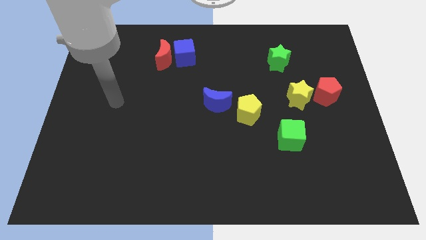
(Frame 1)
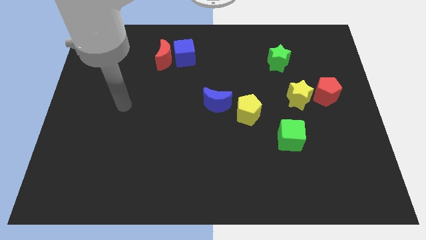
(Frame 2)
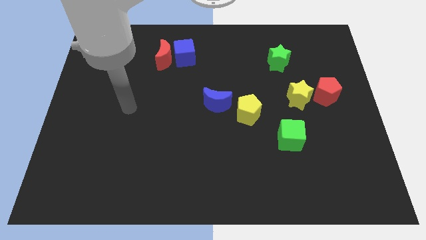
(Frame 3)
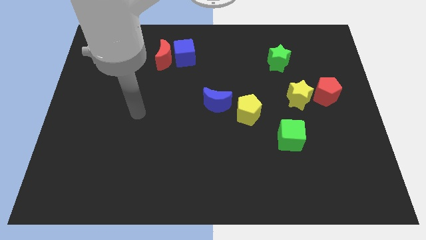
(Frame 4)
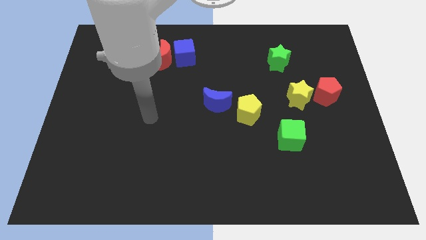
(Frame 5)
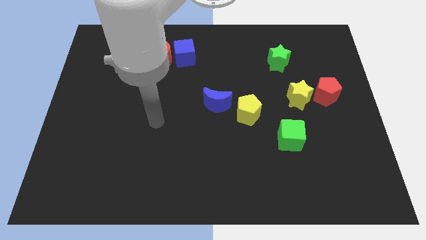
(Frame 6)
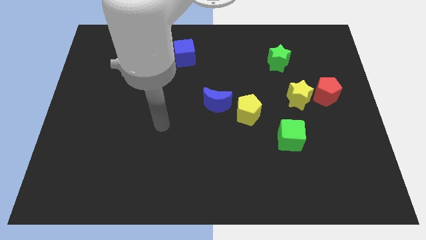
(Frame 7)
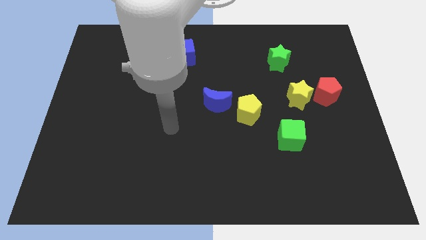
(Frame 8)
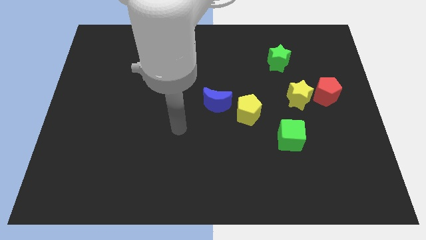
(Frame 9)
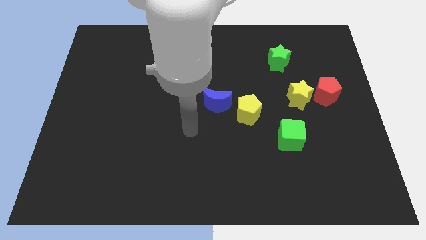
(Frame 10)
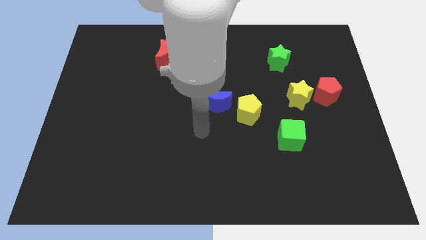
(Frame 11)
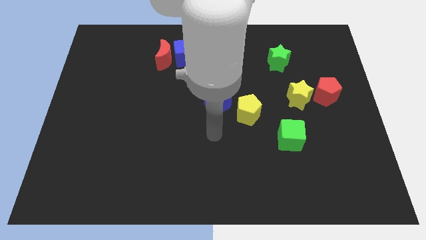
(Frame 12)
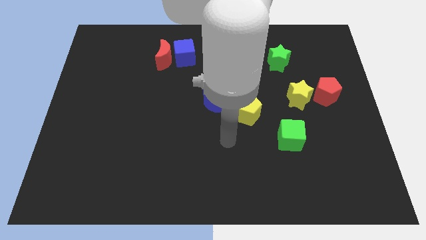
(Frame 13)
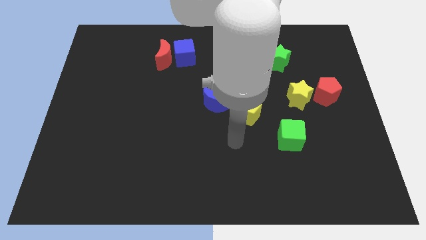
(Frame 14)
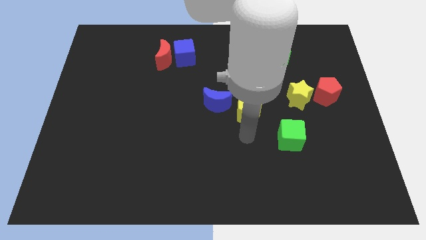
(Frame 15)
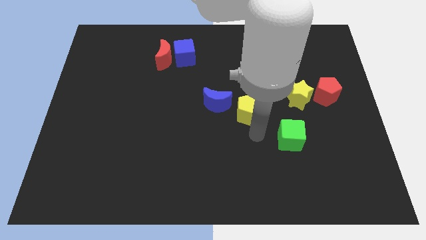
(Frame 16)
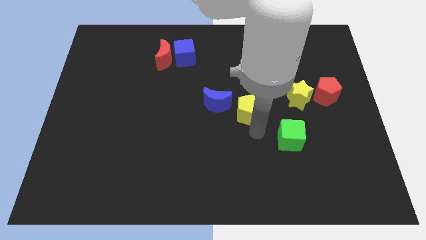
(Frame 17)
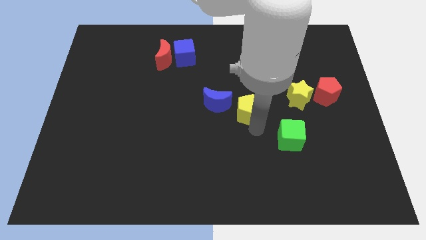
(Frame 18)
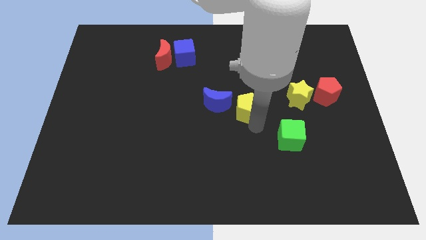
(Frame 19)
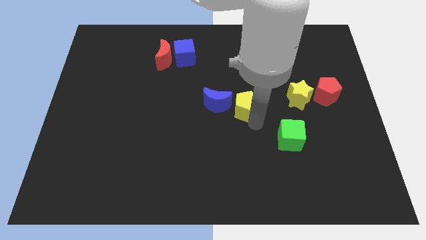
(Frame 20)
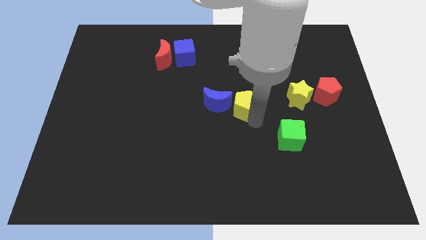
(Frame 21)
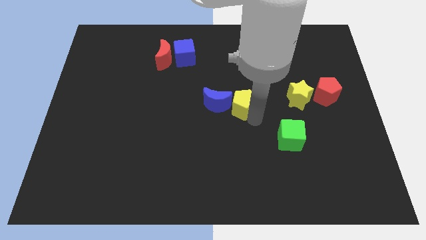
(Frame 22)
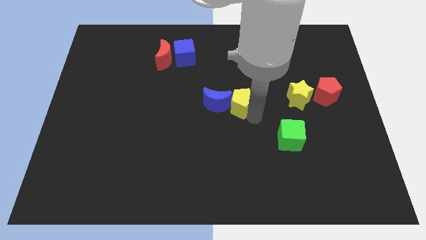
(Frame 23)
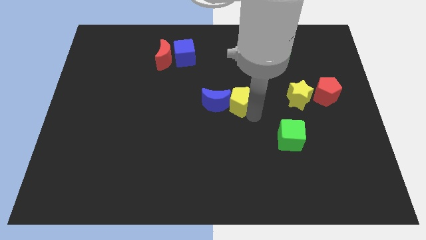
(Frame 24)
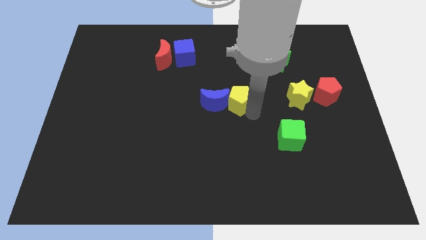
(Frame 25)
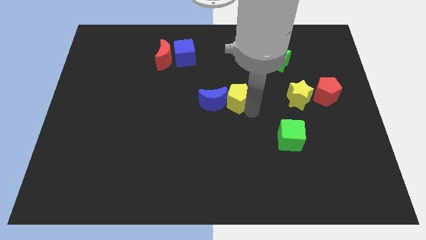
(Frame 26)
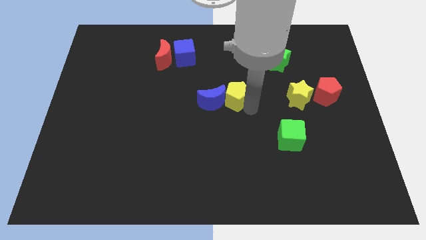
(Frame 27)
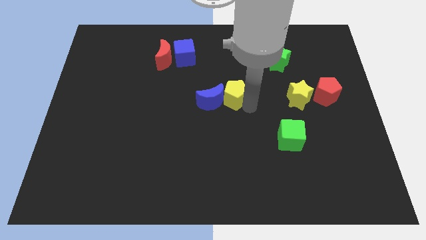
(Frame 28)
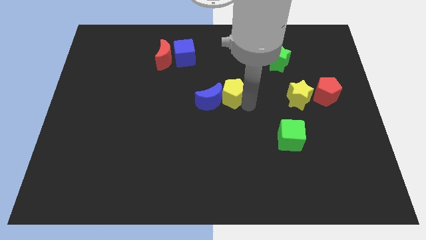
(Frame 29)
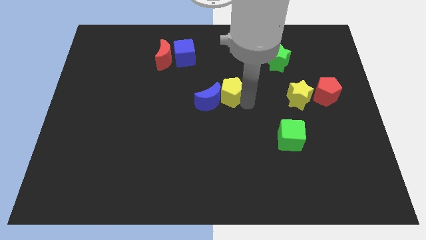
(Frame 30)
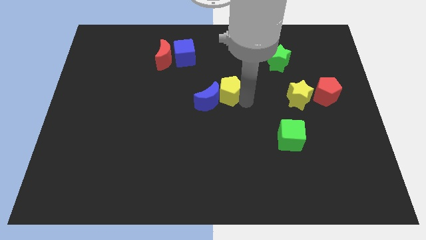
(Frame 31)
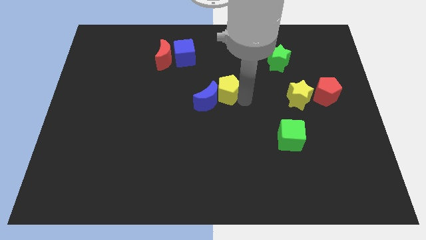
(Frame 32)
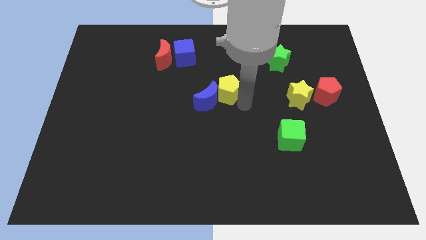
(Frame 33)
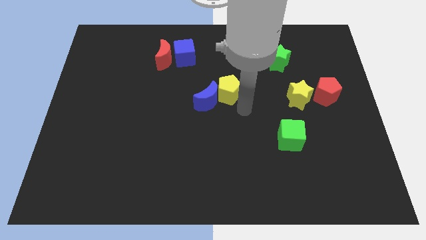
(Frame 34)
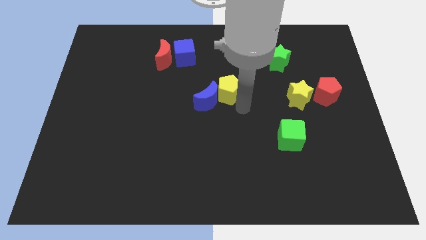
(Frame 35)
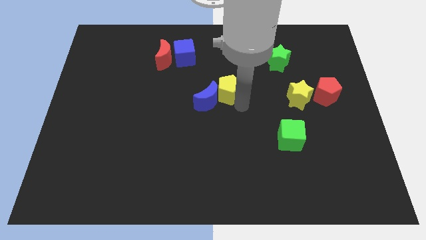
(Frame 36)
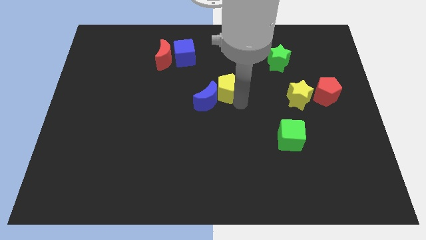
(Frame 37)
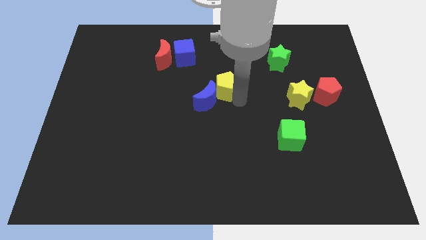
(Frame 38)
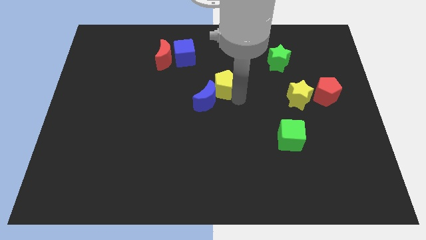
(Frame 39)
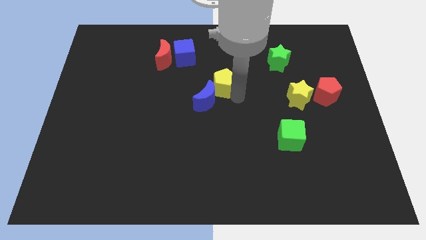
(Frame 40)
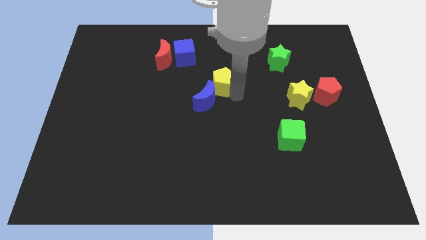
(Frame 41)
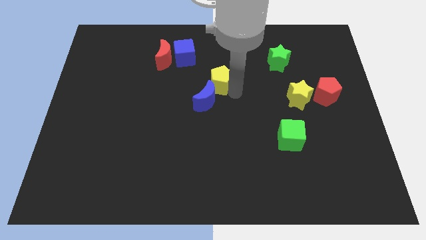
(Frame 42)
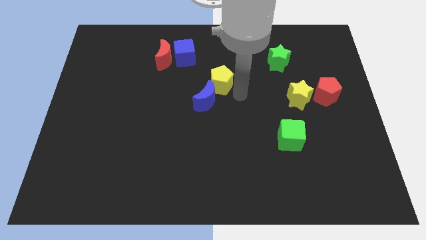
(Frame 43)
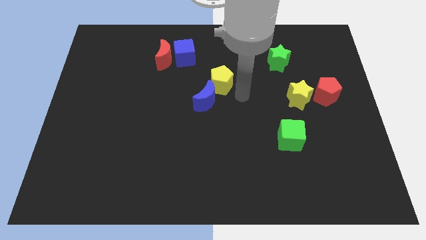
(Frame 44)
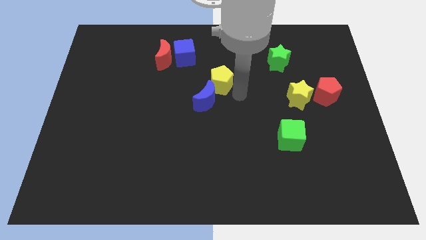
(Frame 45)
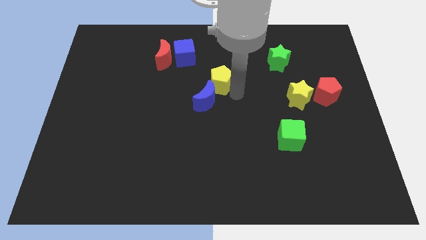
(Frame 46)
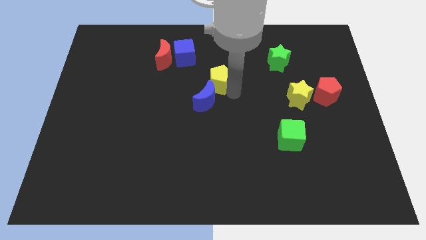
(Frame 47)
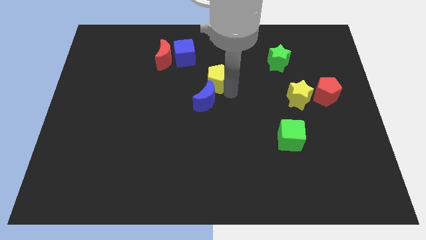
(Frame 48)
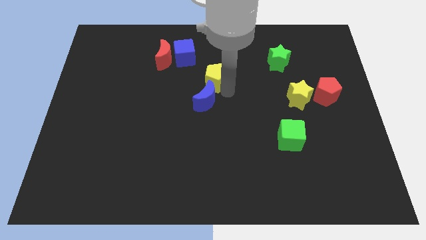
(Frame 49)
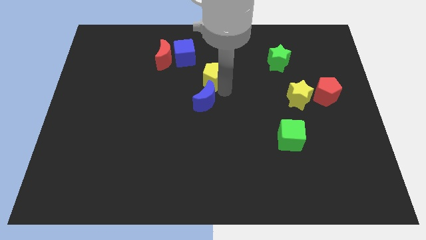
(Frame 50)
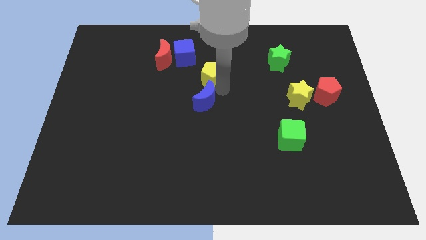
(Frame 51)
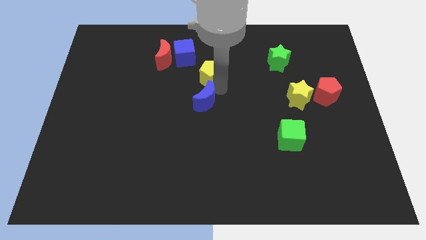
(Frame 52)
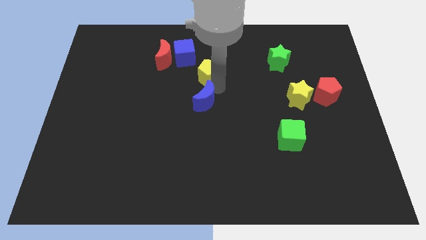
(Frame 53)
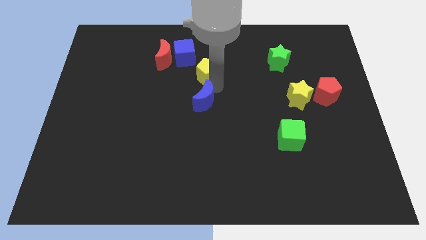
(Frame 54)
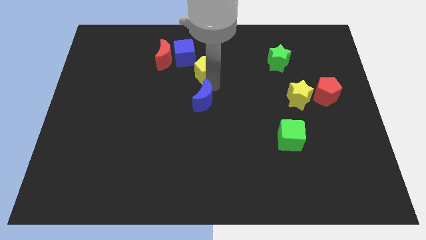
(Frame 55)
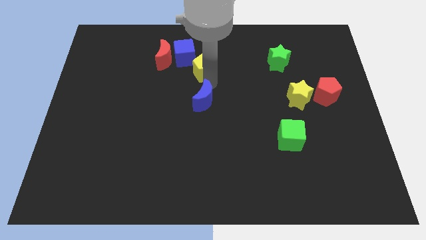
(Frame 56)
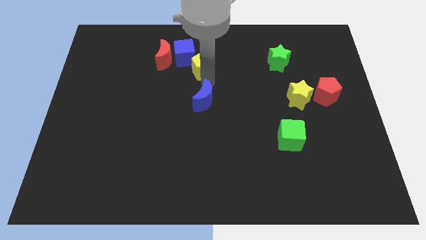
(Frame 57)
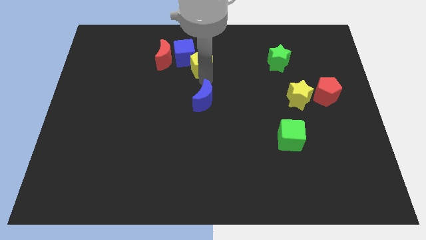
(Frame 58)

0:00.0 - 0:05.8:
slide the yellow pentagon to the blue cube

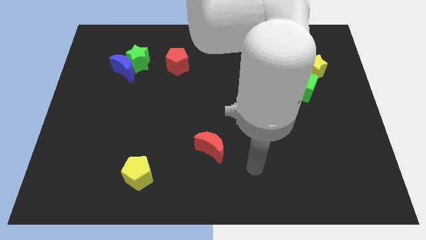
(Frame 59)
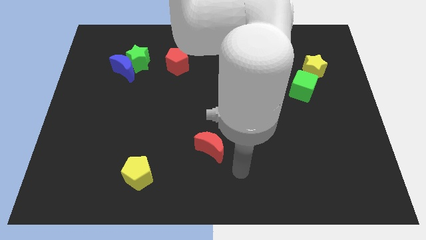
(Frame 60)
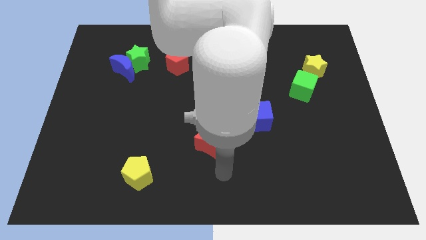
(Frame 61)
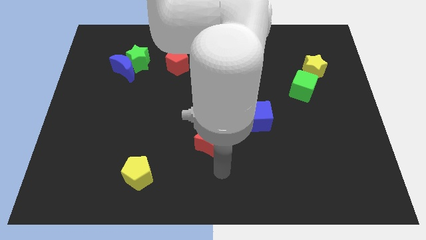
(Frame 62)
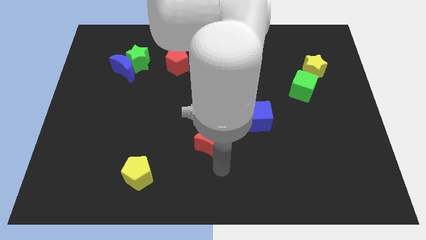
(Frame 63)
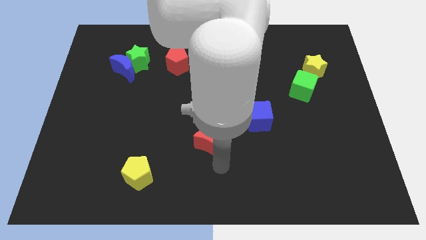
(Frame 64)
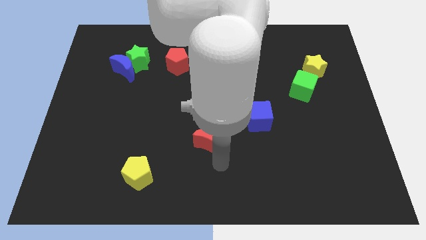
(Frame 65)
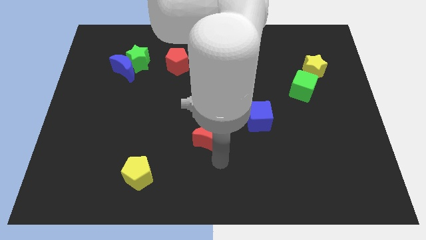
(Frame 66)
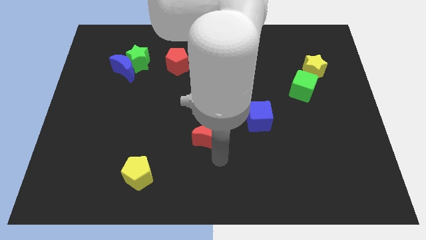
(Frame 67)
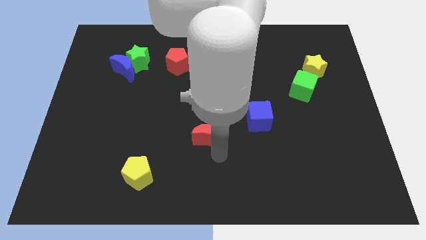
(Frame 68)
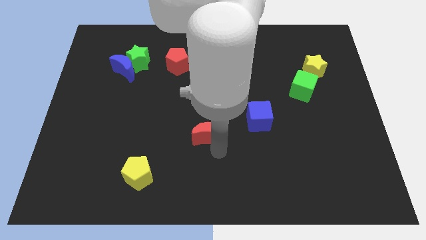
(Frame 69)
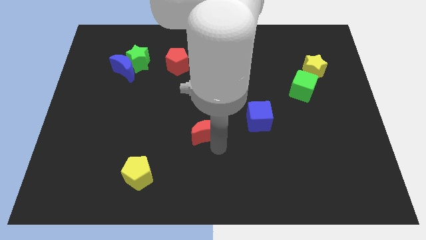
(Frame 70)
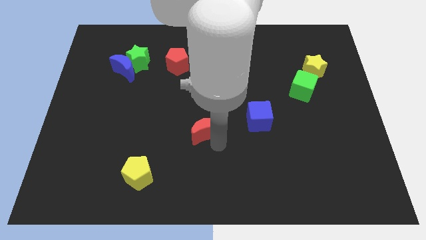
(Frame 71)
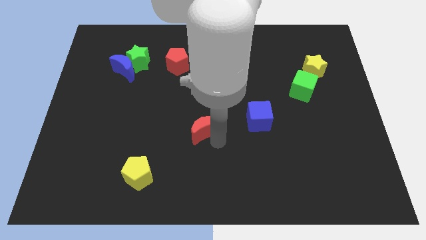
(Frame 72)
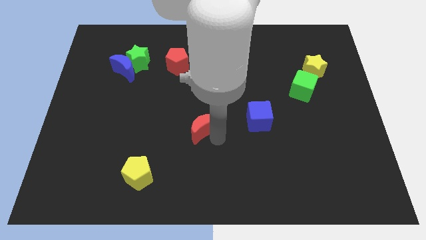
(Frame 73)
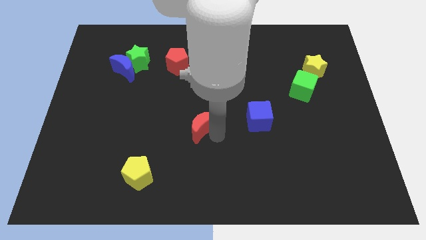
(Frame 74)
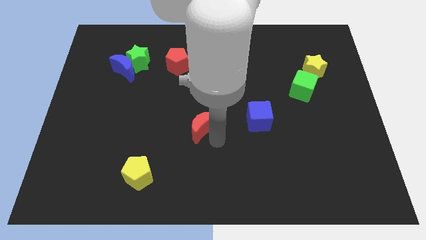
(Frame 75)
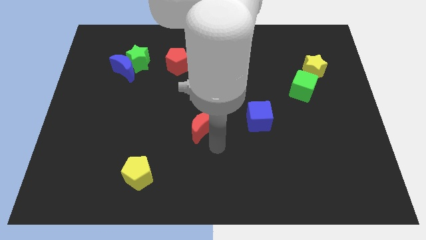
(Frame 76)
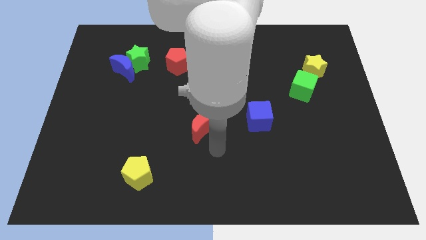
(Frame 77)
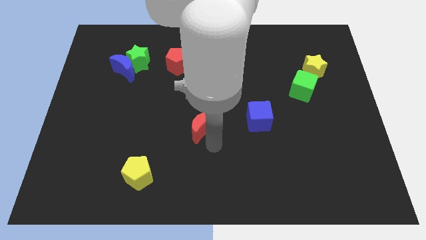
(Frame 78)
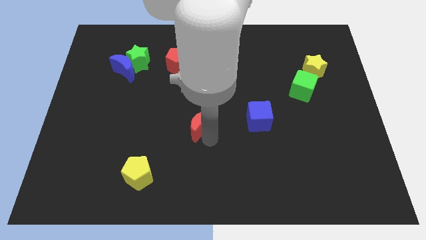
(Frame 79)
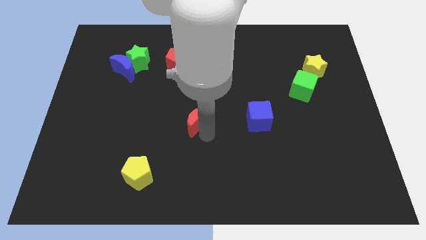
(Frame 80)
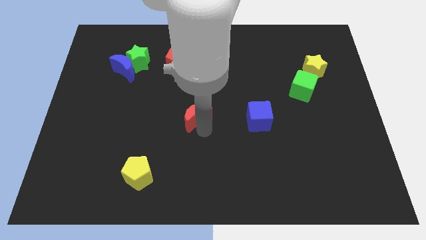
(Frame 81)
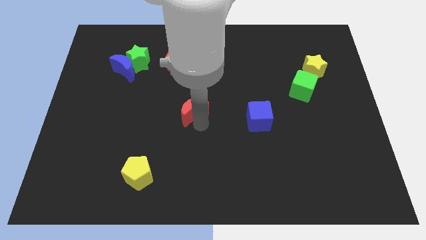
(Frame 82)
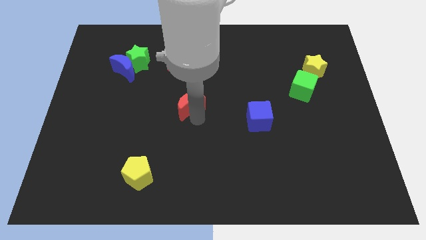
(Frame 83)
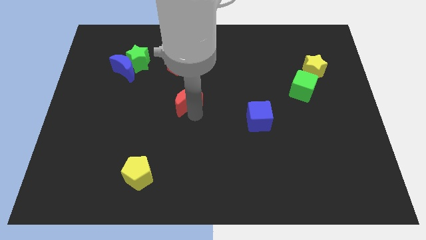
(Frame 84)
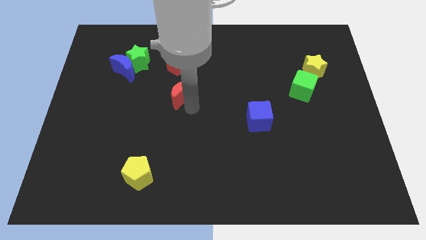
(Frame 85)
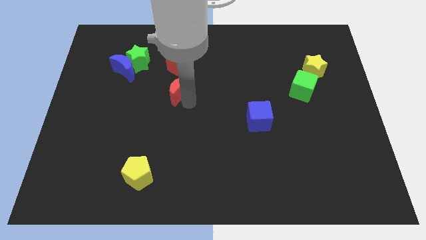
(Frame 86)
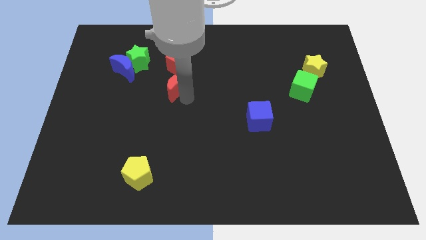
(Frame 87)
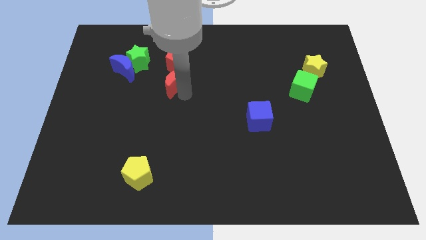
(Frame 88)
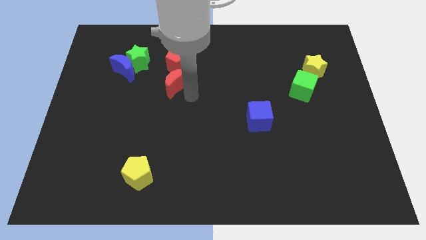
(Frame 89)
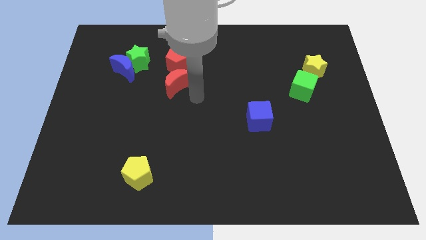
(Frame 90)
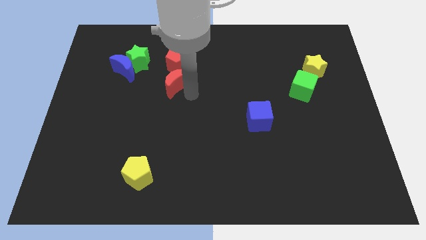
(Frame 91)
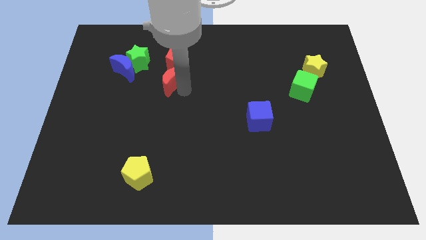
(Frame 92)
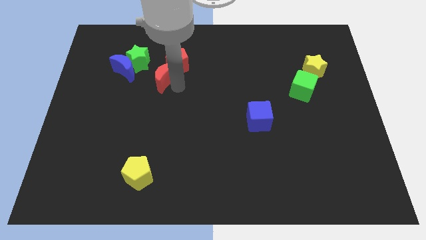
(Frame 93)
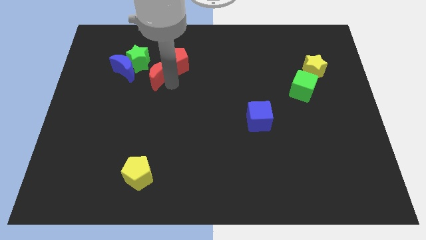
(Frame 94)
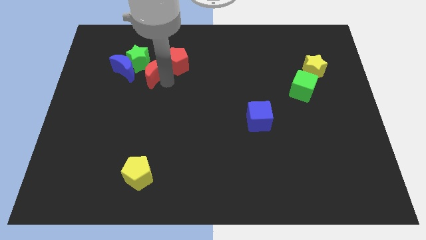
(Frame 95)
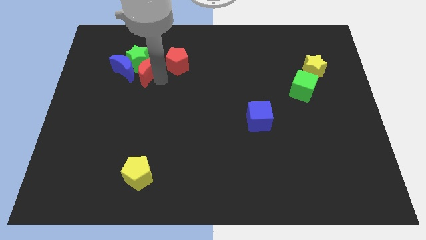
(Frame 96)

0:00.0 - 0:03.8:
move the red moon close to the green star
